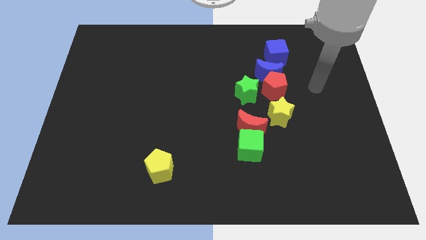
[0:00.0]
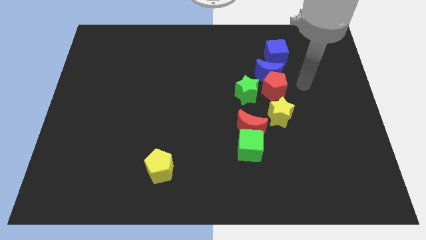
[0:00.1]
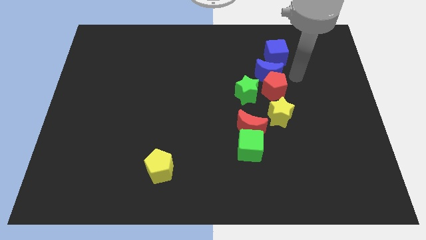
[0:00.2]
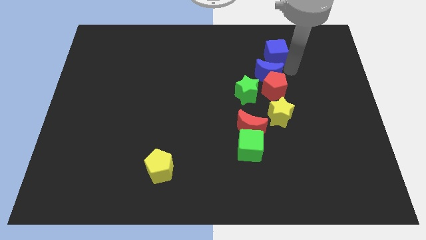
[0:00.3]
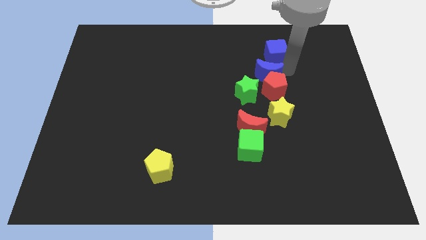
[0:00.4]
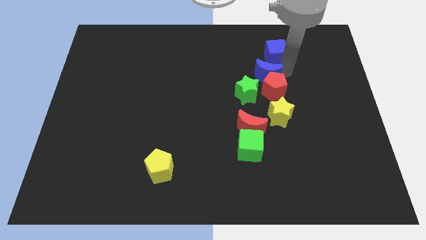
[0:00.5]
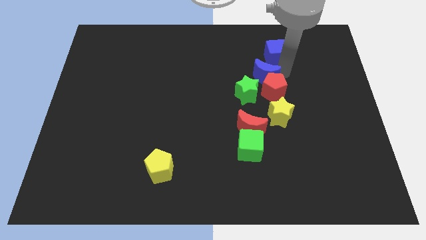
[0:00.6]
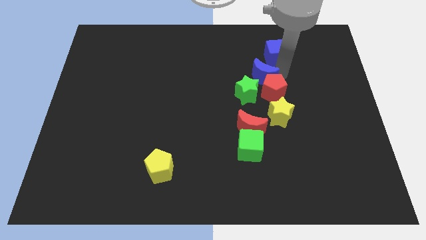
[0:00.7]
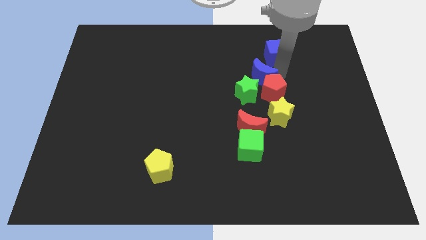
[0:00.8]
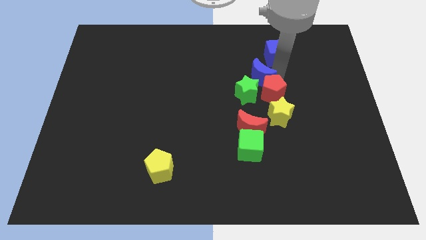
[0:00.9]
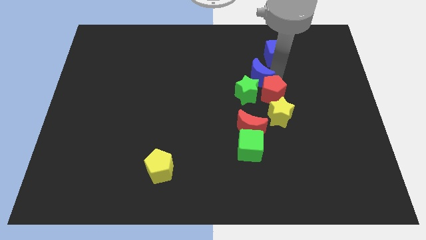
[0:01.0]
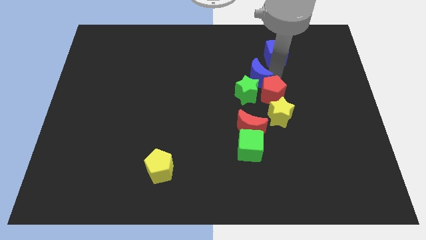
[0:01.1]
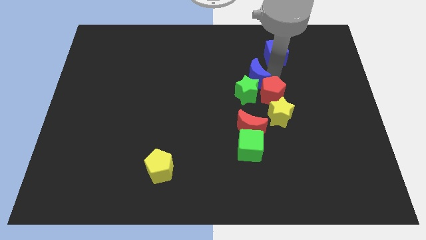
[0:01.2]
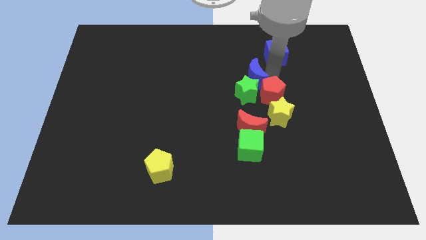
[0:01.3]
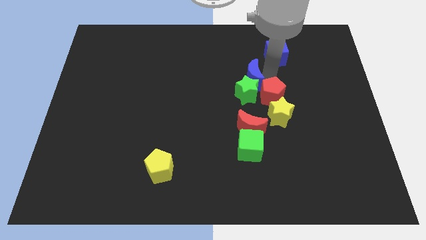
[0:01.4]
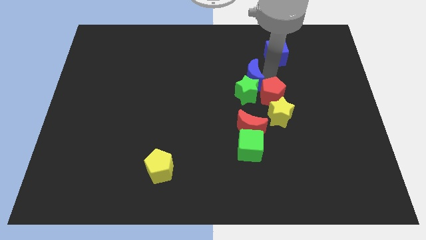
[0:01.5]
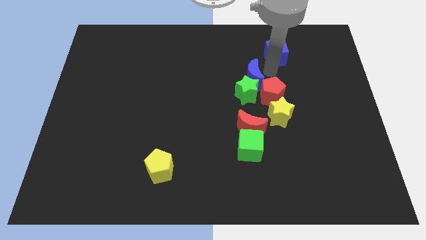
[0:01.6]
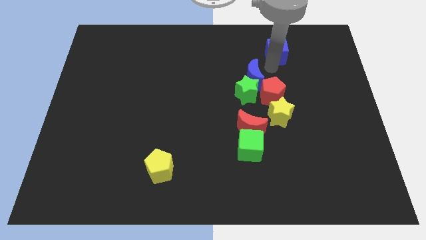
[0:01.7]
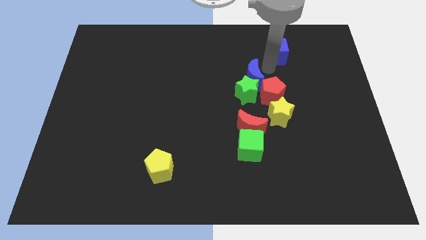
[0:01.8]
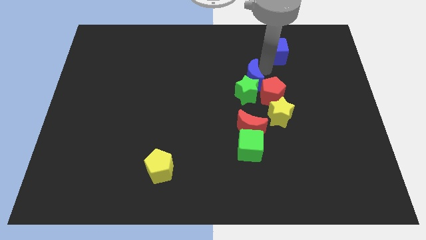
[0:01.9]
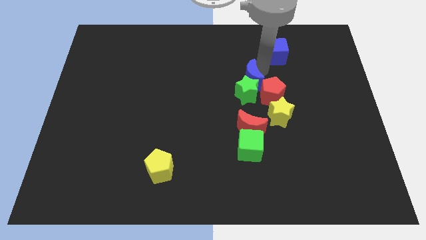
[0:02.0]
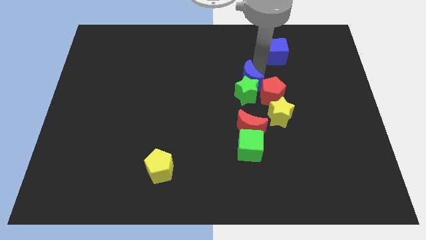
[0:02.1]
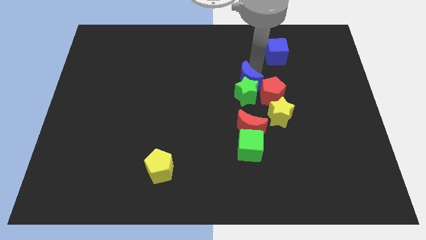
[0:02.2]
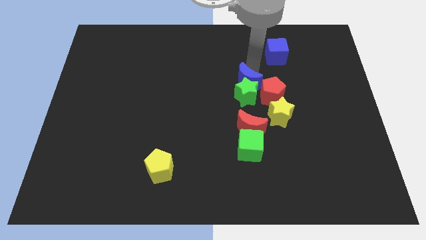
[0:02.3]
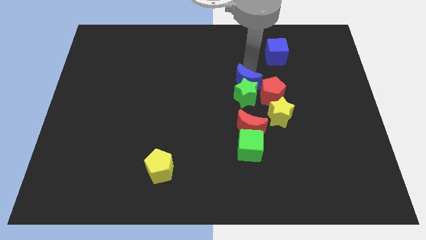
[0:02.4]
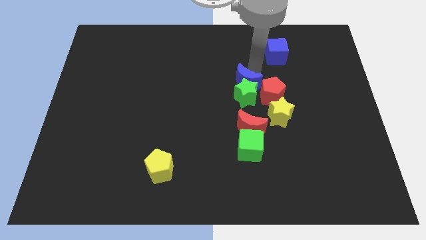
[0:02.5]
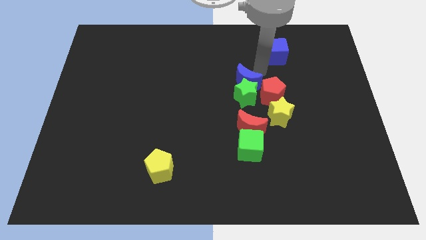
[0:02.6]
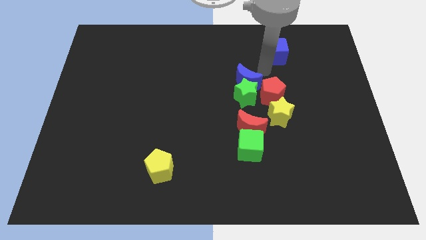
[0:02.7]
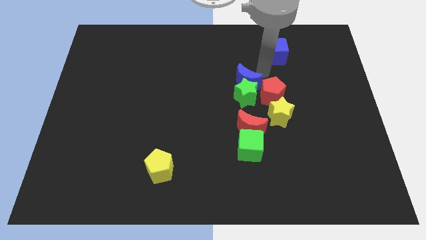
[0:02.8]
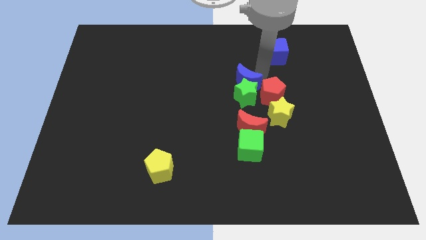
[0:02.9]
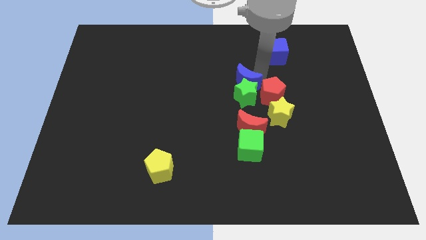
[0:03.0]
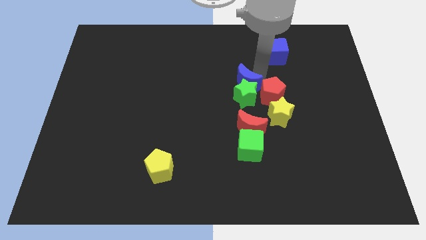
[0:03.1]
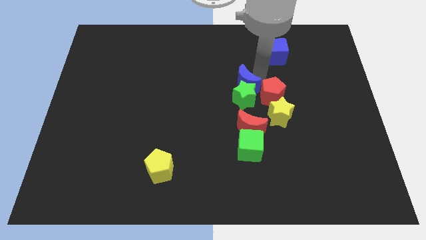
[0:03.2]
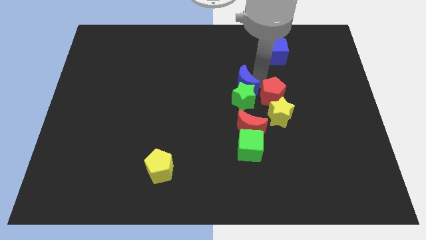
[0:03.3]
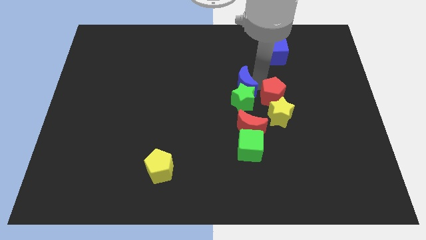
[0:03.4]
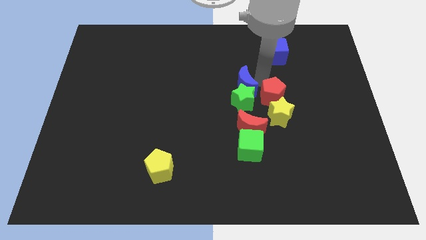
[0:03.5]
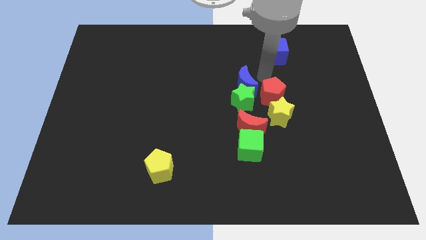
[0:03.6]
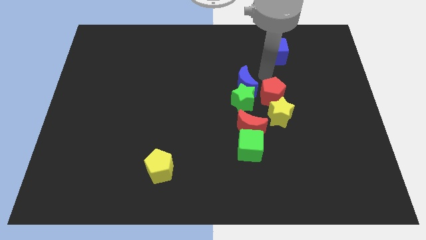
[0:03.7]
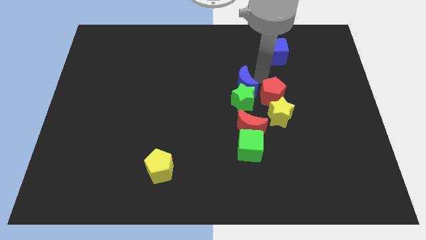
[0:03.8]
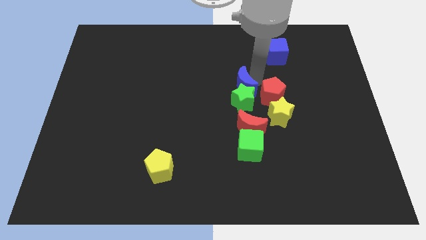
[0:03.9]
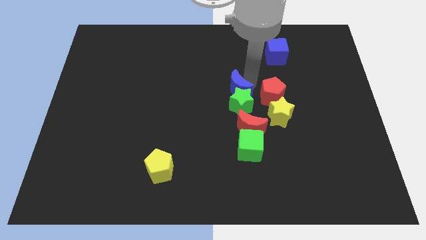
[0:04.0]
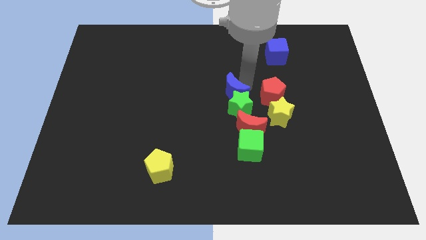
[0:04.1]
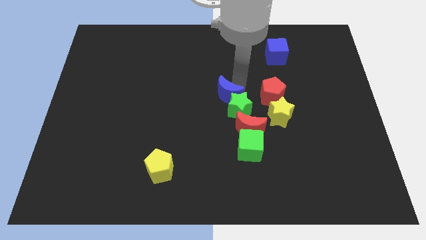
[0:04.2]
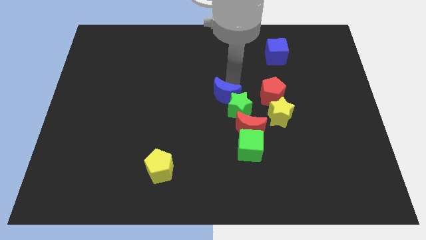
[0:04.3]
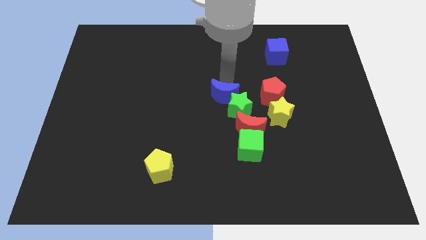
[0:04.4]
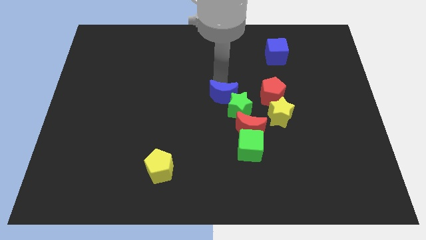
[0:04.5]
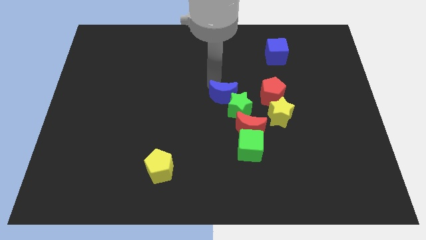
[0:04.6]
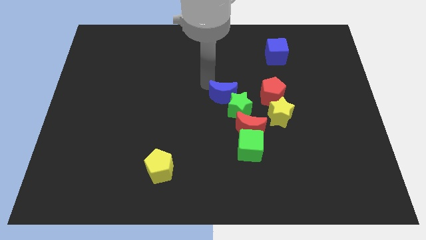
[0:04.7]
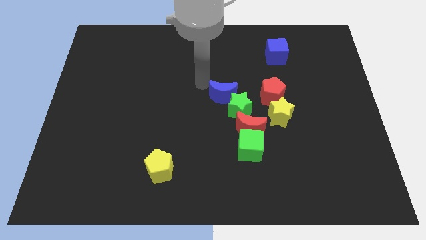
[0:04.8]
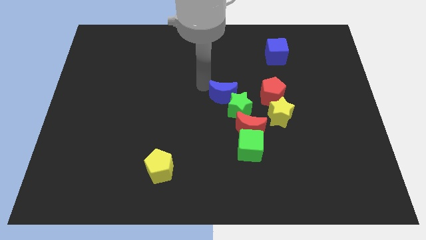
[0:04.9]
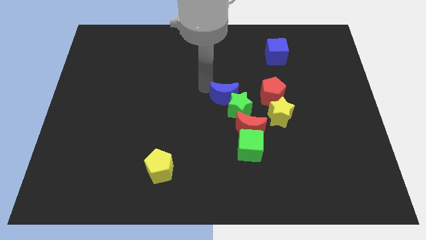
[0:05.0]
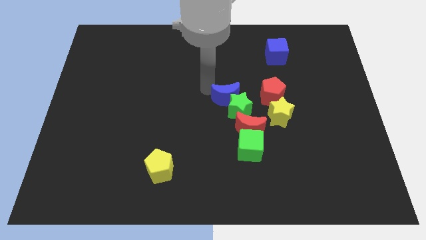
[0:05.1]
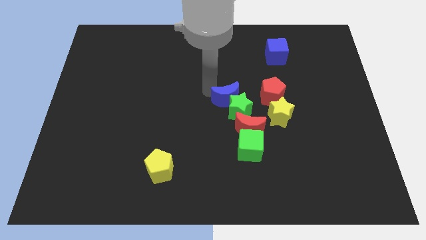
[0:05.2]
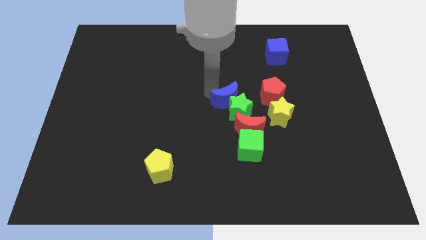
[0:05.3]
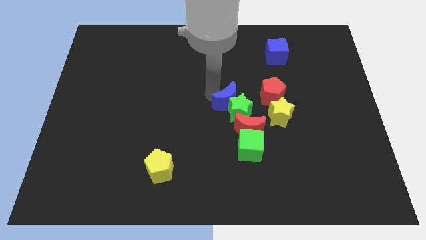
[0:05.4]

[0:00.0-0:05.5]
put the blue moon above the green cube

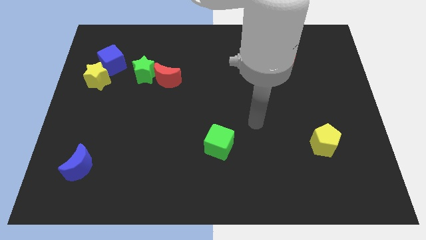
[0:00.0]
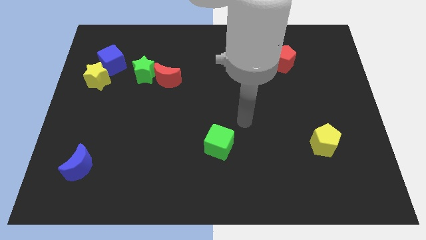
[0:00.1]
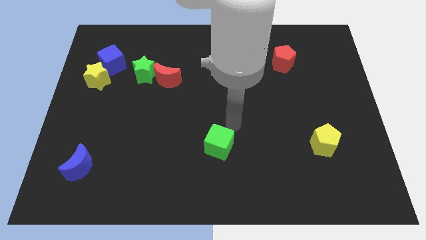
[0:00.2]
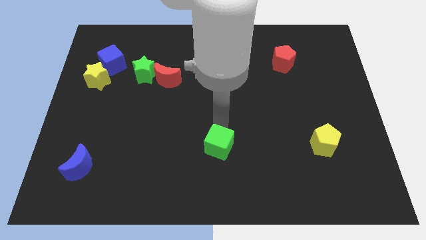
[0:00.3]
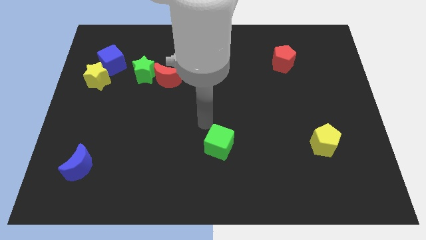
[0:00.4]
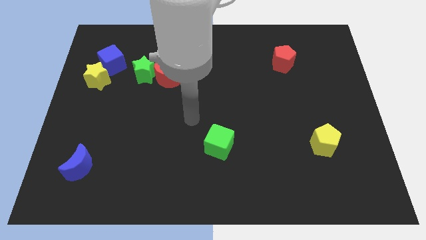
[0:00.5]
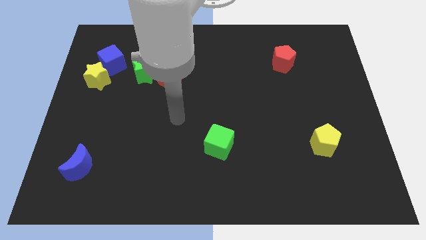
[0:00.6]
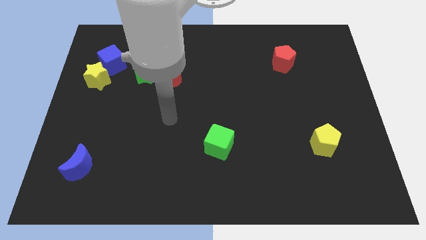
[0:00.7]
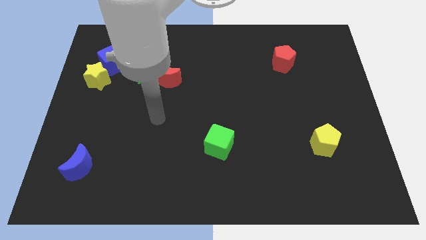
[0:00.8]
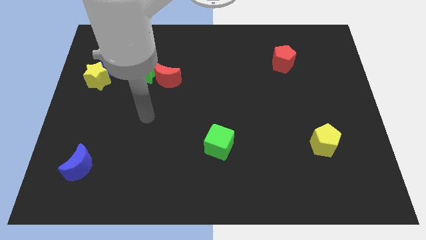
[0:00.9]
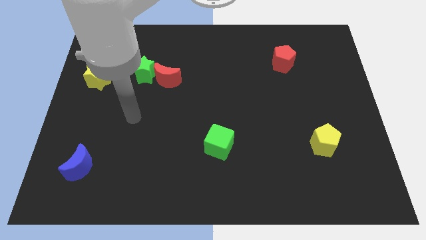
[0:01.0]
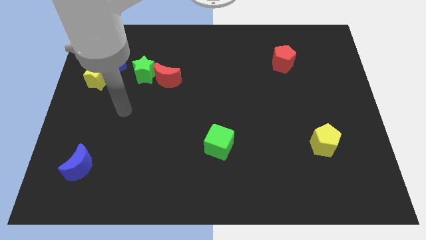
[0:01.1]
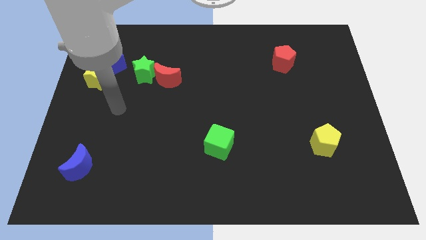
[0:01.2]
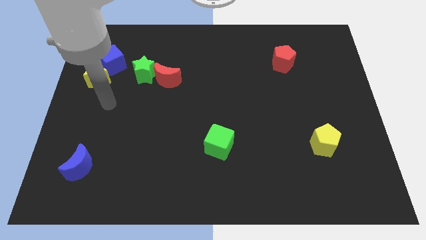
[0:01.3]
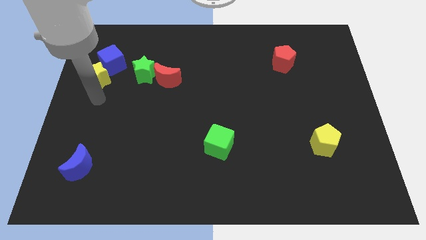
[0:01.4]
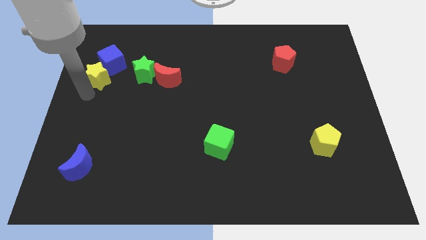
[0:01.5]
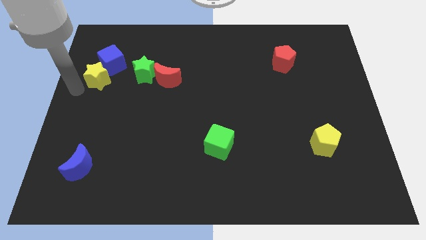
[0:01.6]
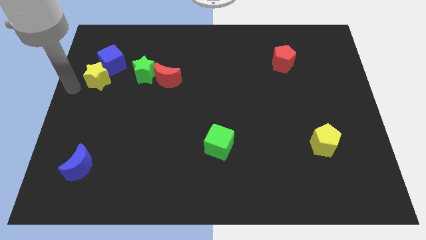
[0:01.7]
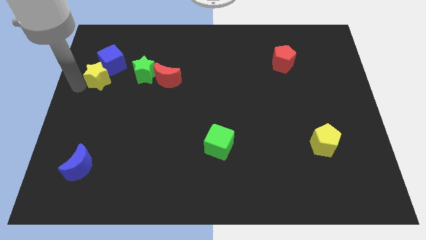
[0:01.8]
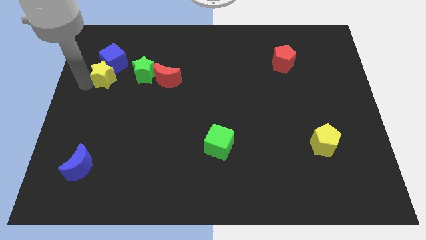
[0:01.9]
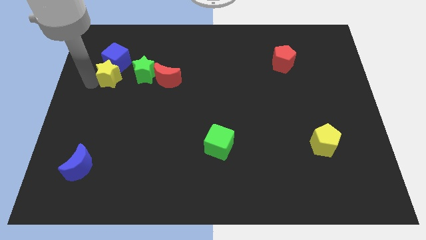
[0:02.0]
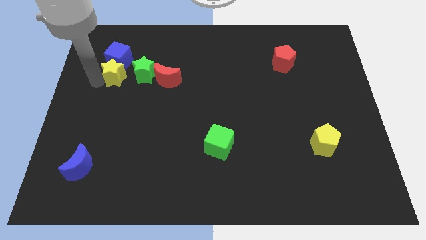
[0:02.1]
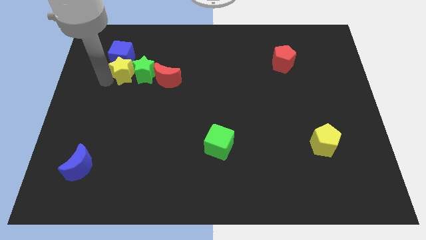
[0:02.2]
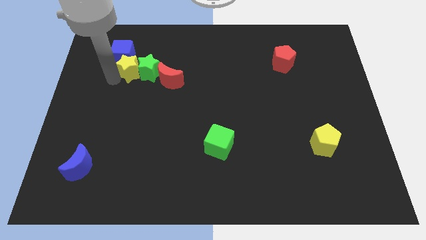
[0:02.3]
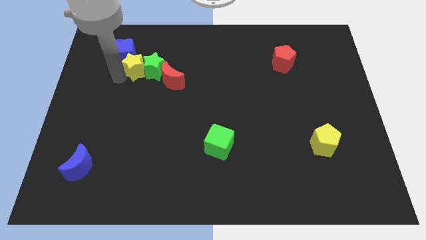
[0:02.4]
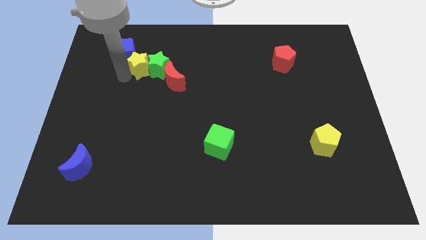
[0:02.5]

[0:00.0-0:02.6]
push the yellow star just right of the blue cube
